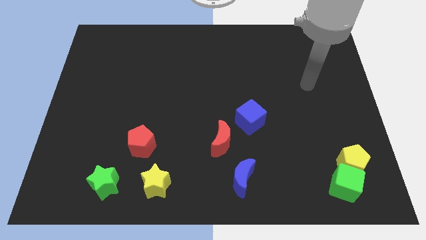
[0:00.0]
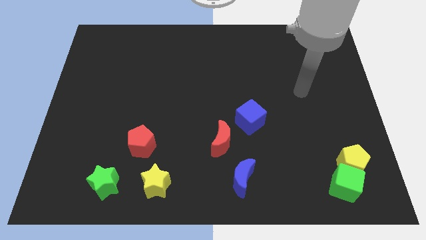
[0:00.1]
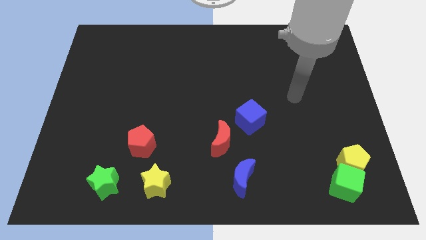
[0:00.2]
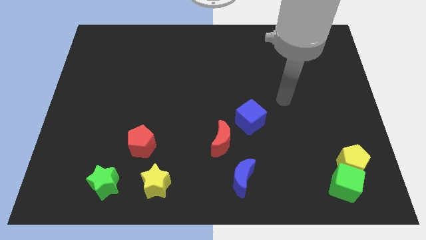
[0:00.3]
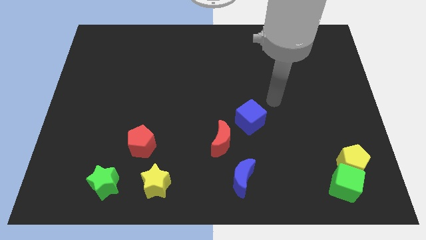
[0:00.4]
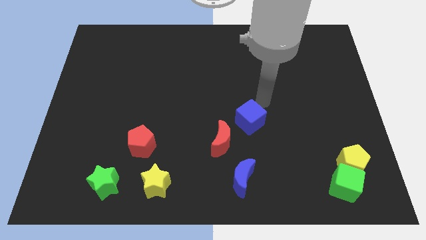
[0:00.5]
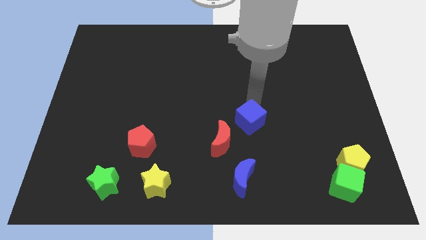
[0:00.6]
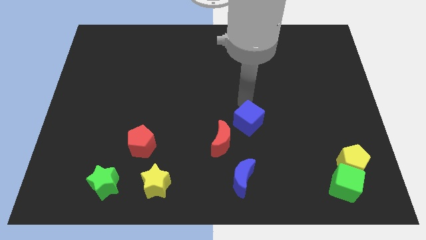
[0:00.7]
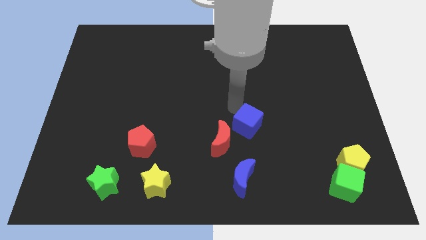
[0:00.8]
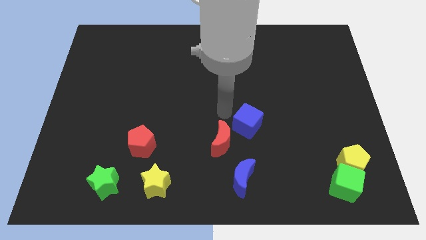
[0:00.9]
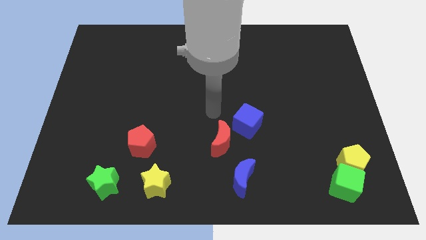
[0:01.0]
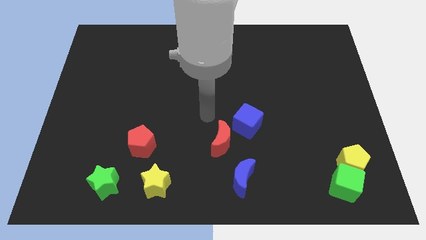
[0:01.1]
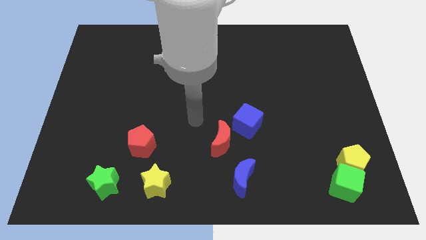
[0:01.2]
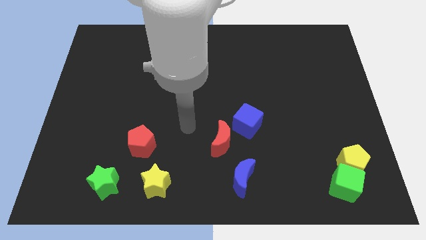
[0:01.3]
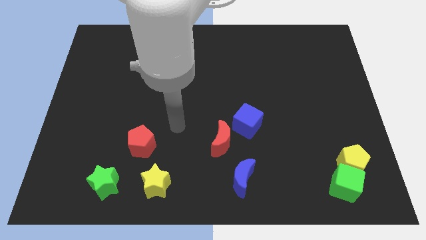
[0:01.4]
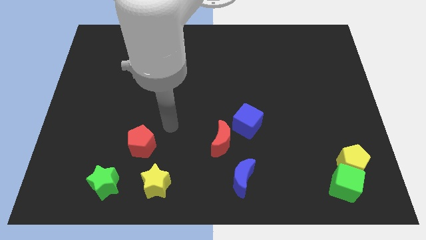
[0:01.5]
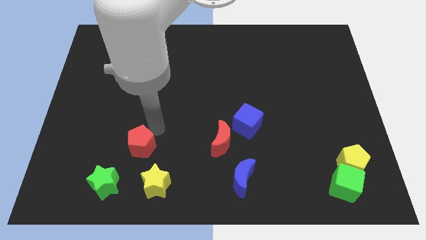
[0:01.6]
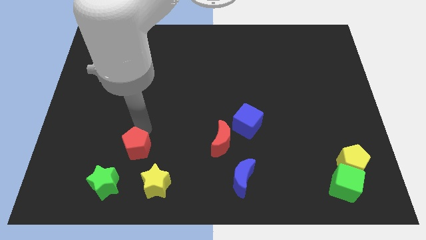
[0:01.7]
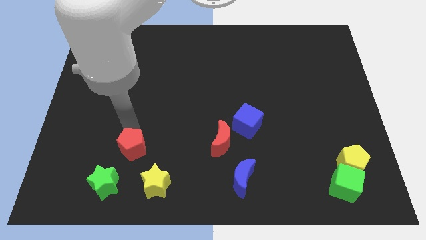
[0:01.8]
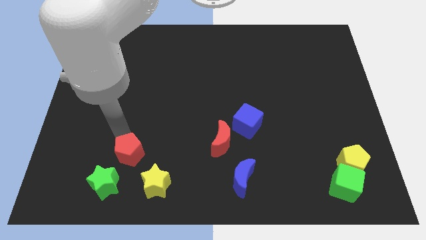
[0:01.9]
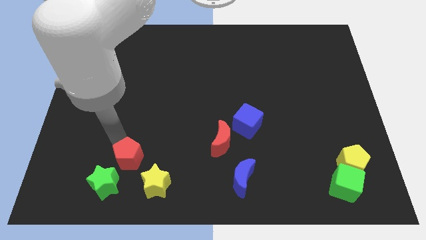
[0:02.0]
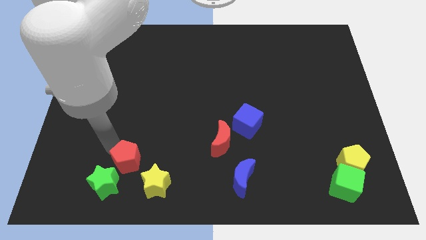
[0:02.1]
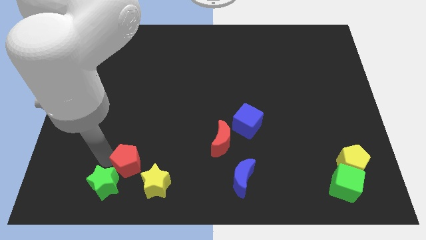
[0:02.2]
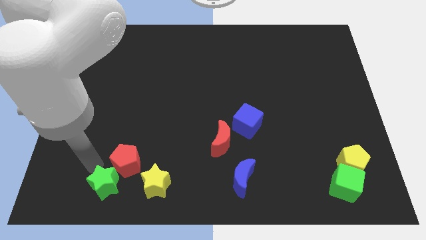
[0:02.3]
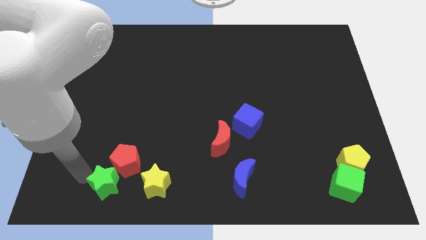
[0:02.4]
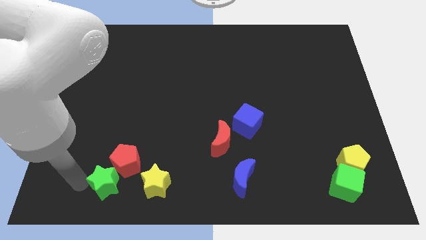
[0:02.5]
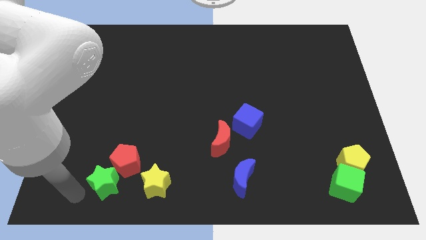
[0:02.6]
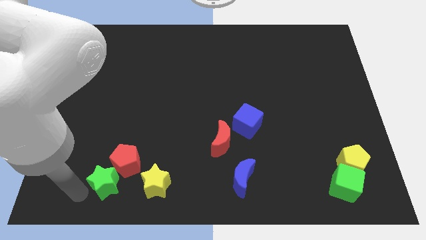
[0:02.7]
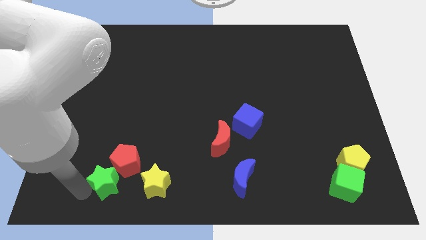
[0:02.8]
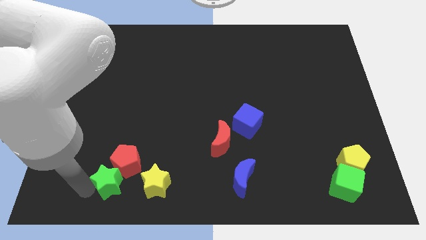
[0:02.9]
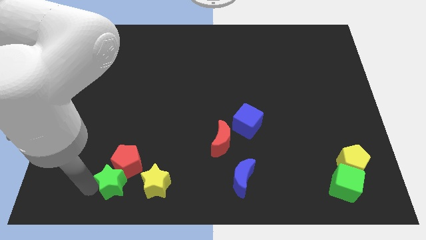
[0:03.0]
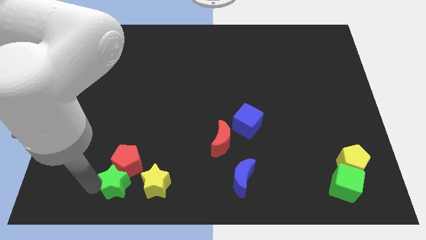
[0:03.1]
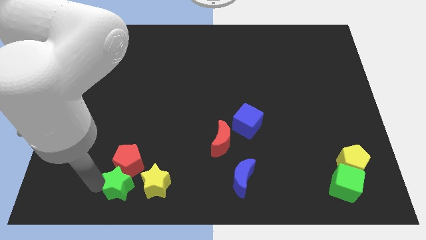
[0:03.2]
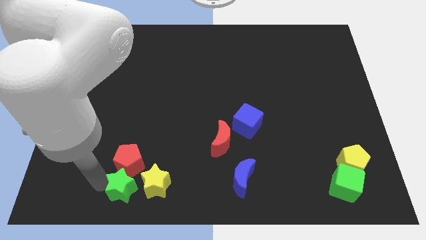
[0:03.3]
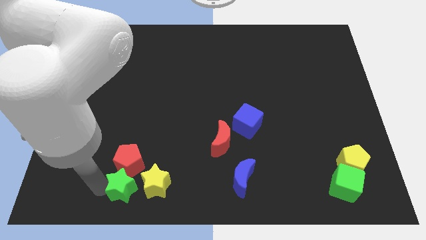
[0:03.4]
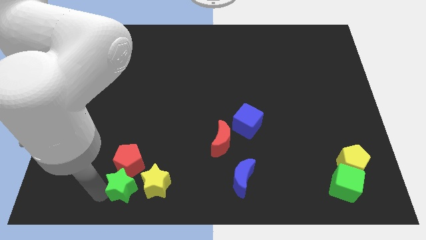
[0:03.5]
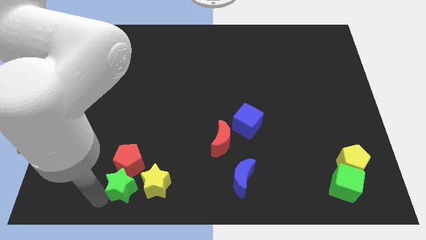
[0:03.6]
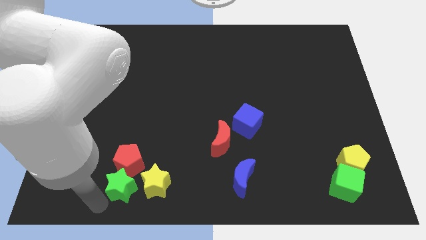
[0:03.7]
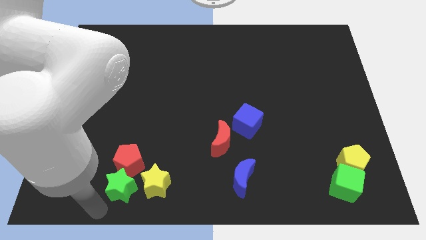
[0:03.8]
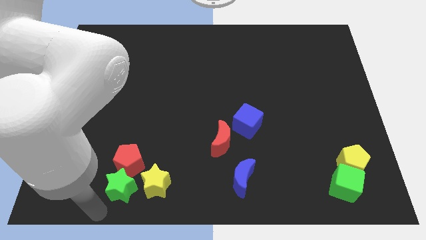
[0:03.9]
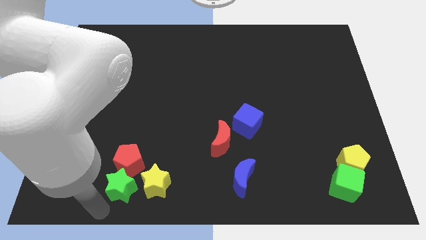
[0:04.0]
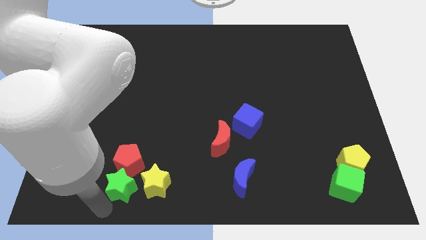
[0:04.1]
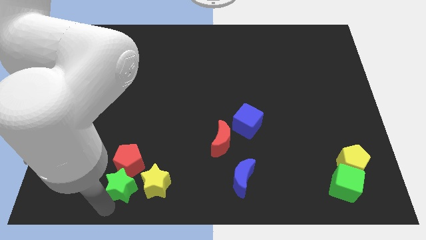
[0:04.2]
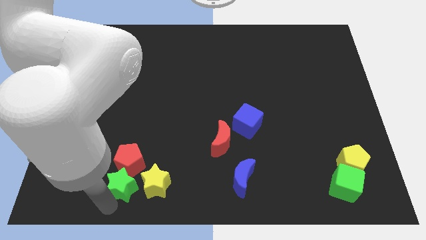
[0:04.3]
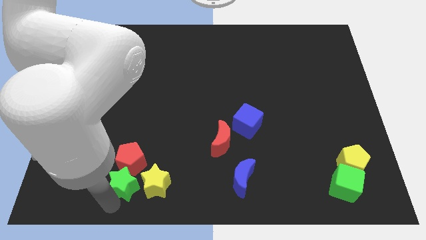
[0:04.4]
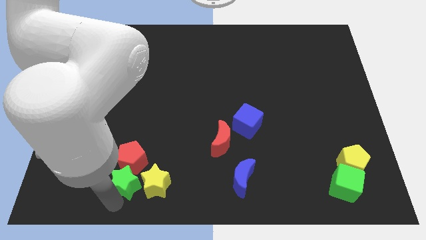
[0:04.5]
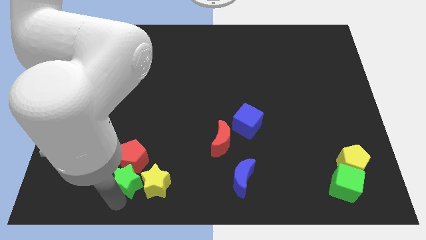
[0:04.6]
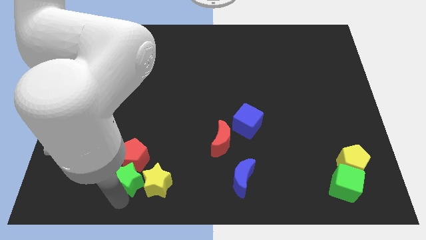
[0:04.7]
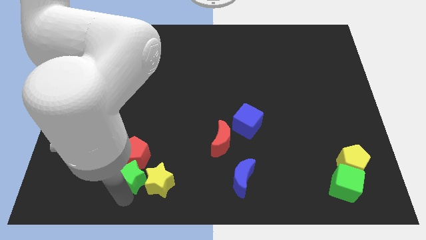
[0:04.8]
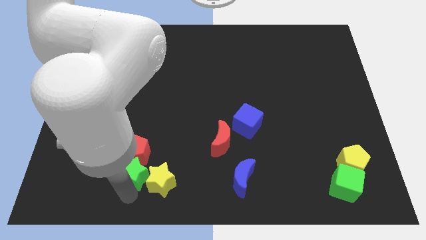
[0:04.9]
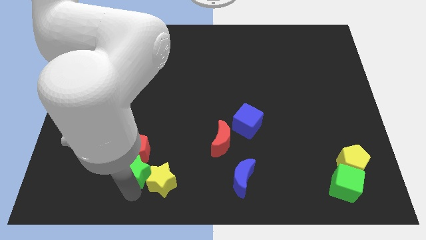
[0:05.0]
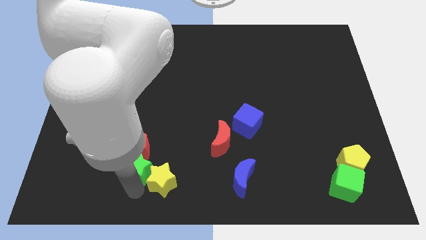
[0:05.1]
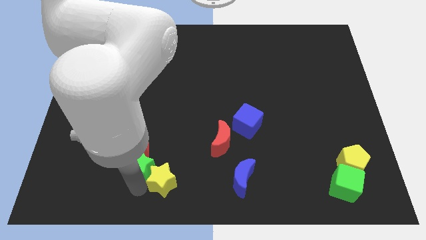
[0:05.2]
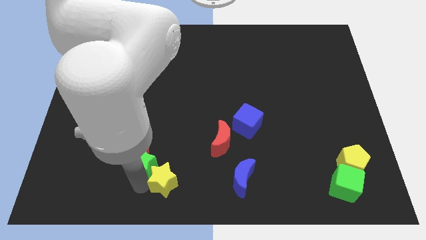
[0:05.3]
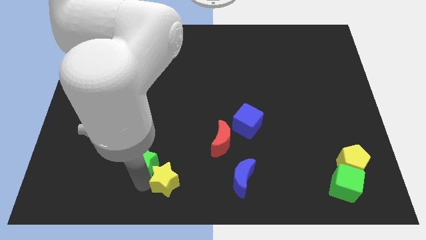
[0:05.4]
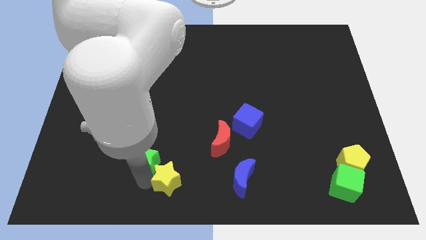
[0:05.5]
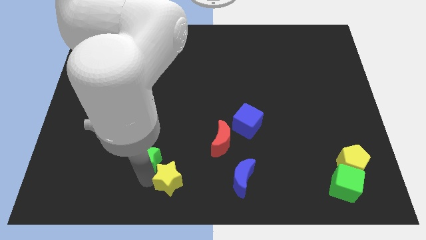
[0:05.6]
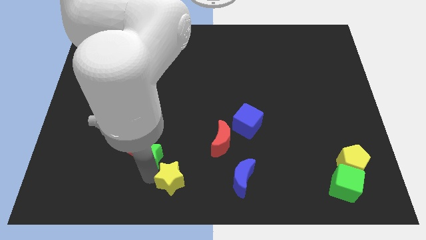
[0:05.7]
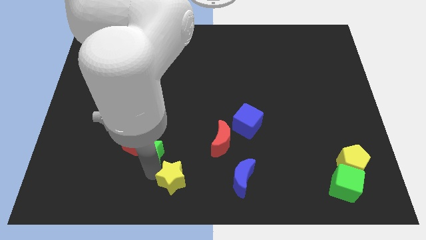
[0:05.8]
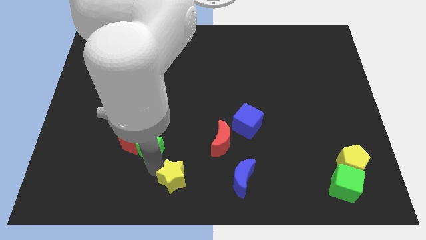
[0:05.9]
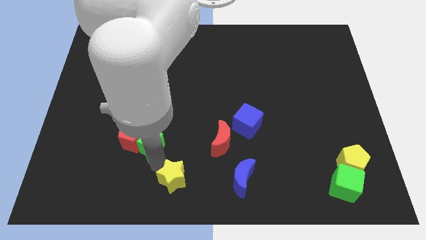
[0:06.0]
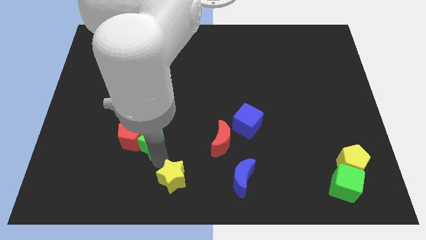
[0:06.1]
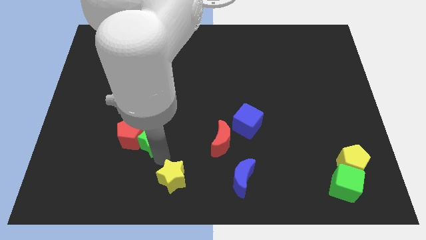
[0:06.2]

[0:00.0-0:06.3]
move the green star diagonally up and to the right of the red pentagon

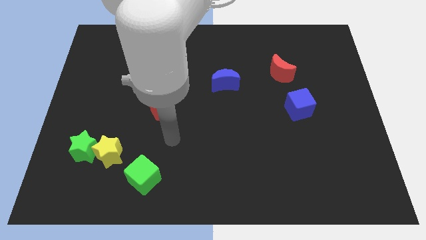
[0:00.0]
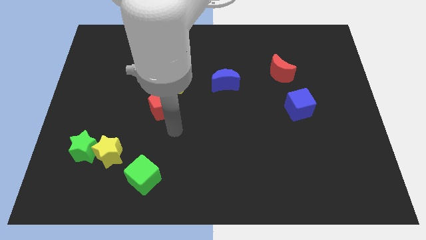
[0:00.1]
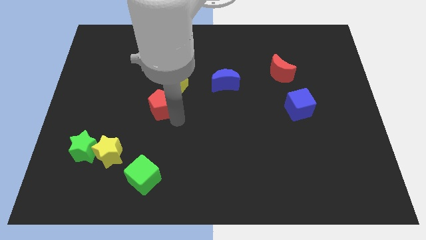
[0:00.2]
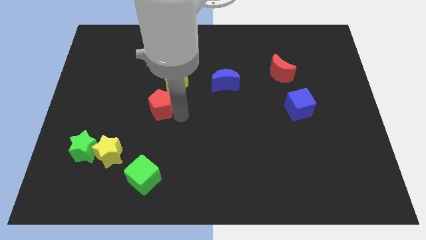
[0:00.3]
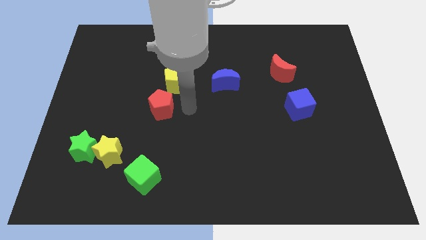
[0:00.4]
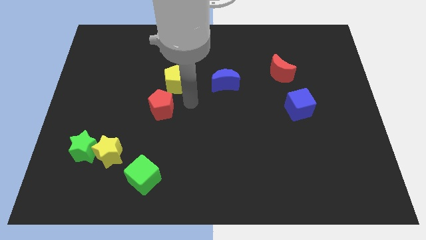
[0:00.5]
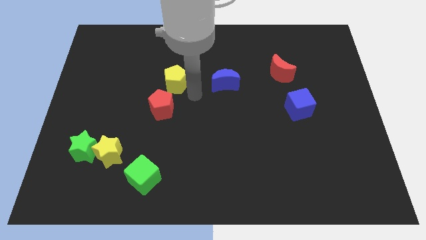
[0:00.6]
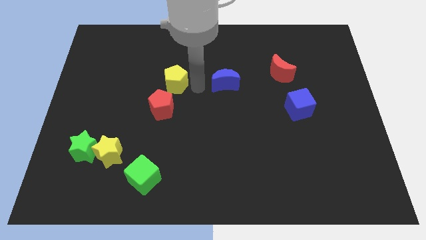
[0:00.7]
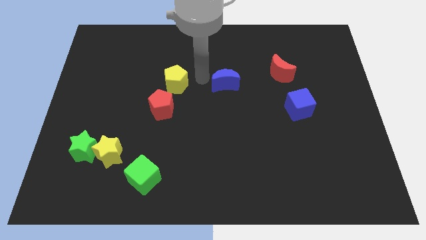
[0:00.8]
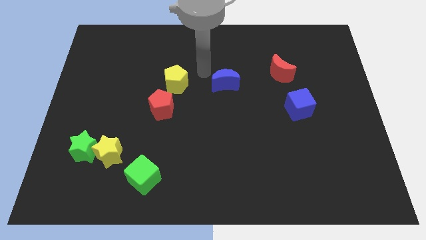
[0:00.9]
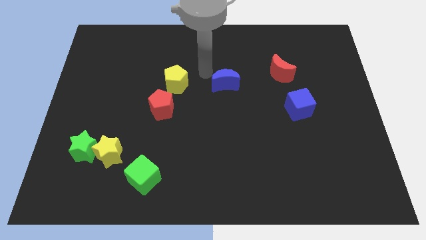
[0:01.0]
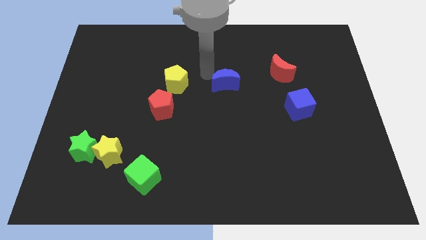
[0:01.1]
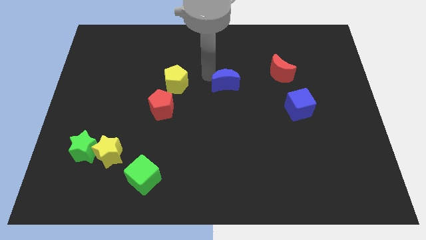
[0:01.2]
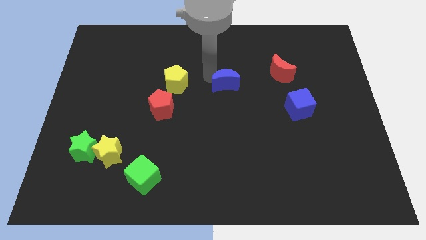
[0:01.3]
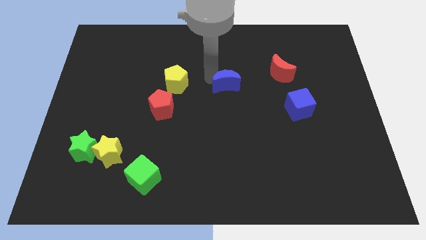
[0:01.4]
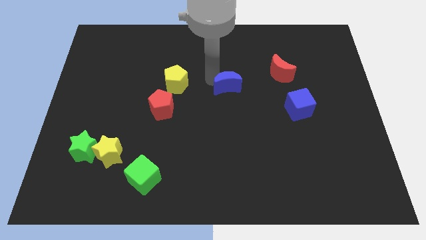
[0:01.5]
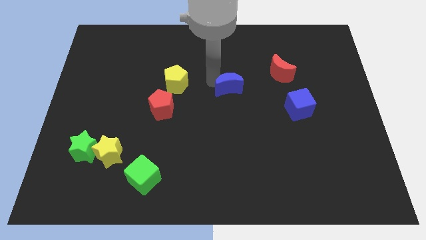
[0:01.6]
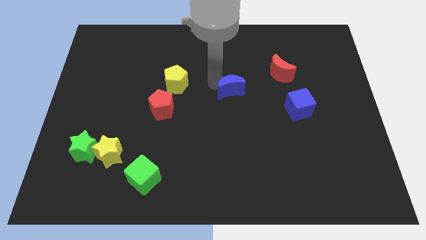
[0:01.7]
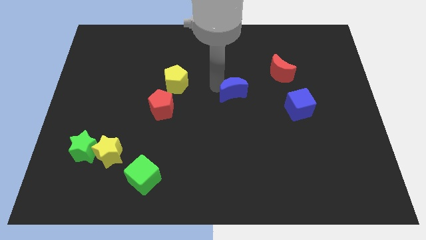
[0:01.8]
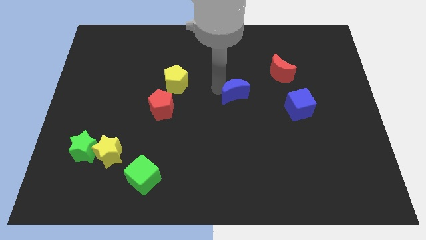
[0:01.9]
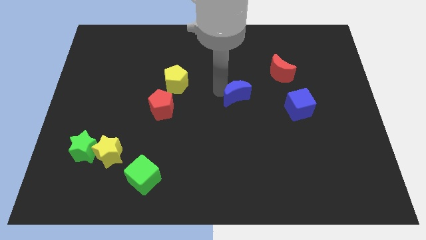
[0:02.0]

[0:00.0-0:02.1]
move the blue moon left of the blue cube
